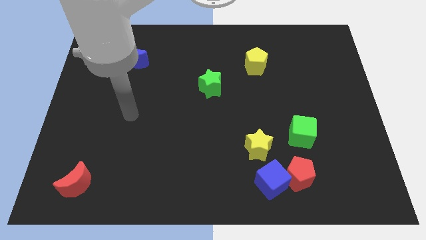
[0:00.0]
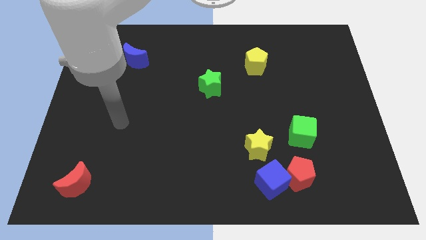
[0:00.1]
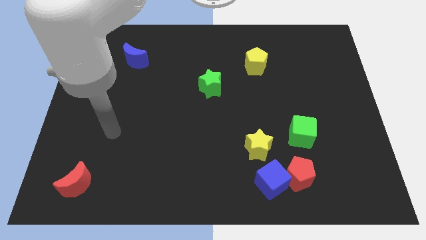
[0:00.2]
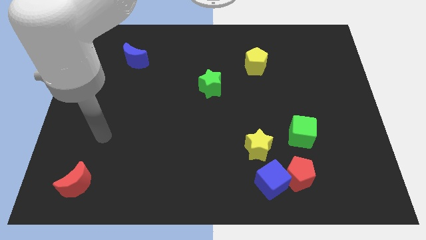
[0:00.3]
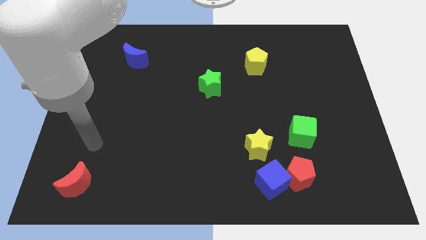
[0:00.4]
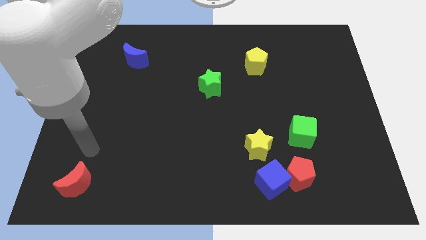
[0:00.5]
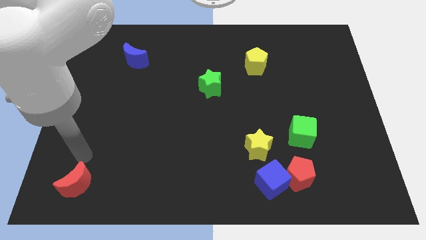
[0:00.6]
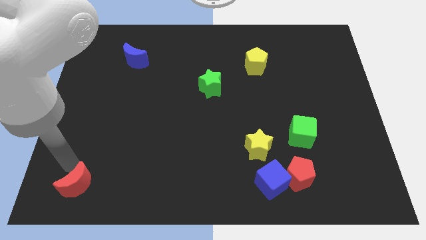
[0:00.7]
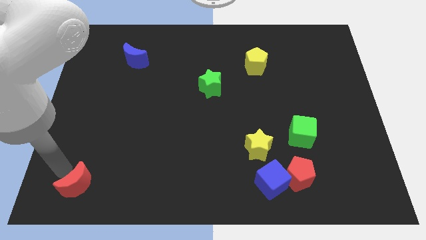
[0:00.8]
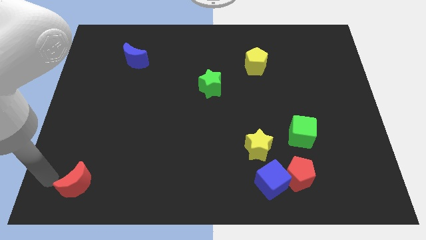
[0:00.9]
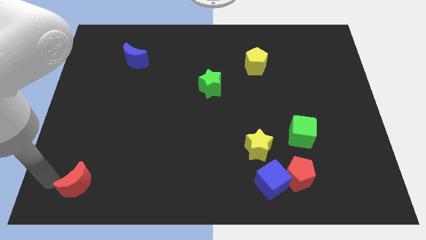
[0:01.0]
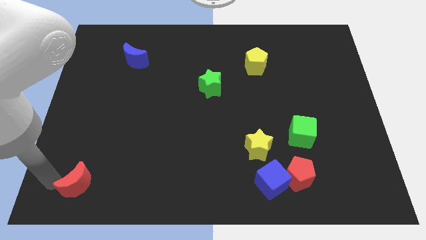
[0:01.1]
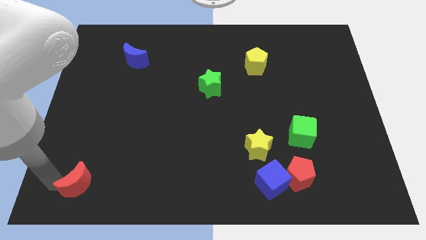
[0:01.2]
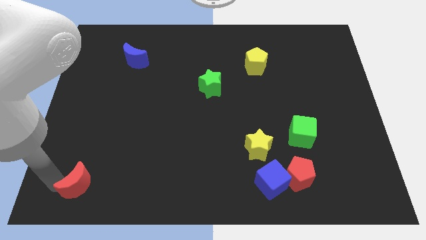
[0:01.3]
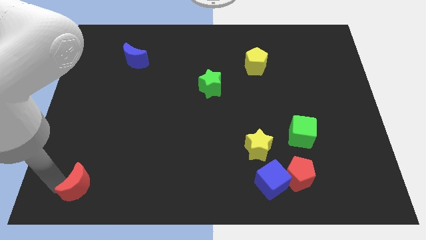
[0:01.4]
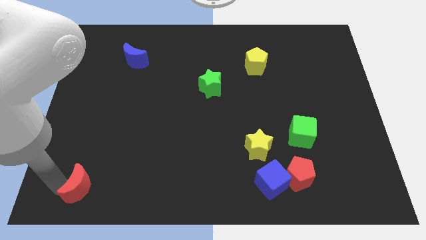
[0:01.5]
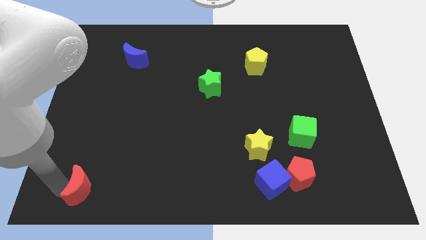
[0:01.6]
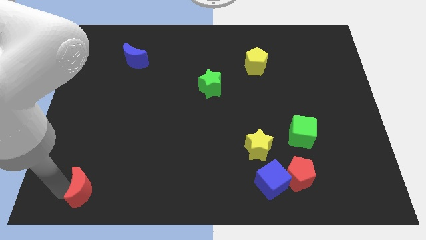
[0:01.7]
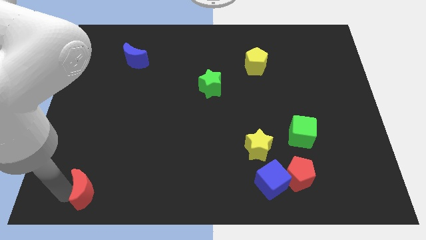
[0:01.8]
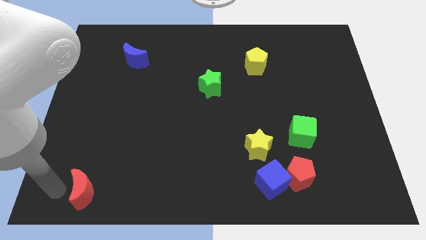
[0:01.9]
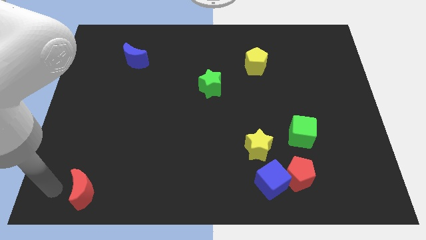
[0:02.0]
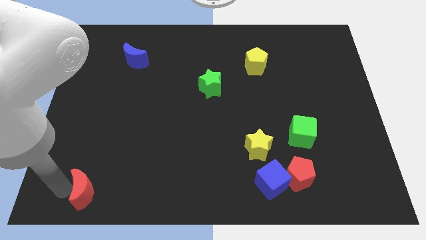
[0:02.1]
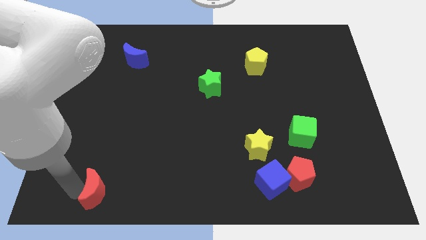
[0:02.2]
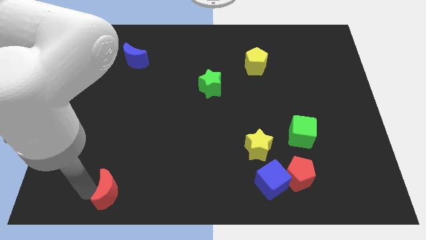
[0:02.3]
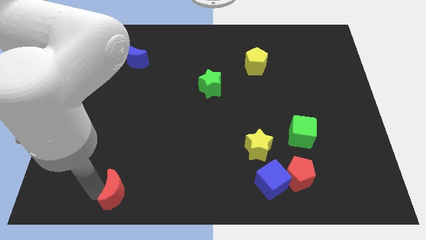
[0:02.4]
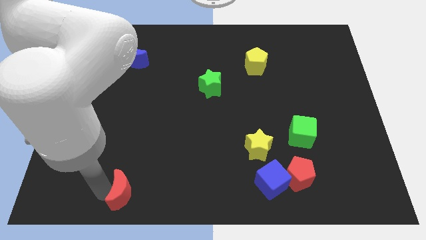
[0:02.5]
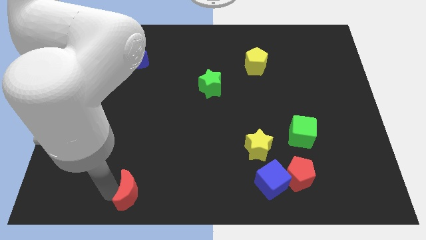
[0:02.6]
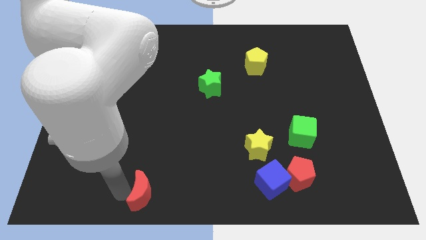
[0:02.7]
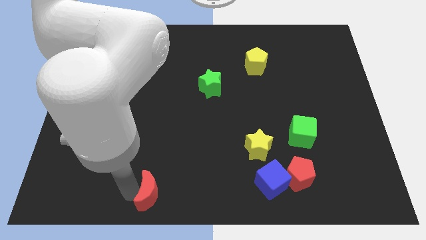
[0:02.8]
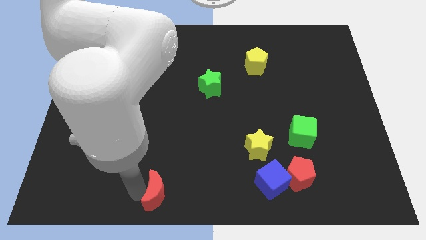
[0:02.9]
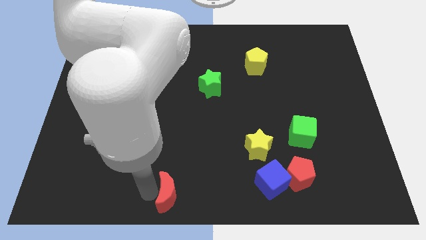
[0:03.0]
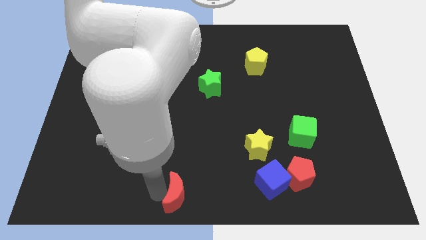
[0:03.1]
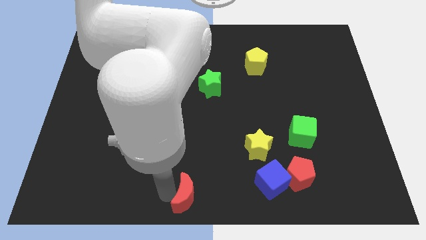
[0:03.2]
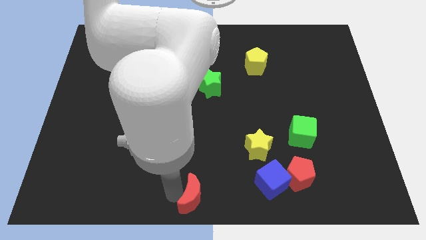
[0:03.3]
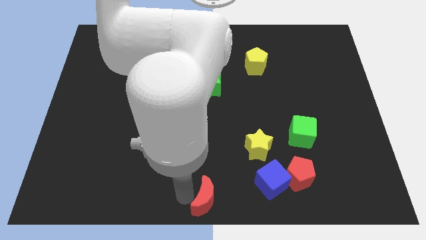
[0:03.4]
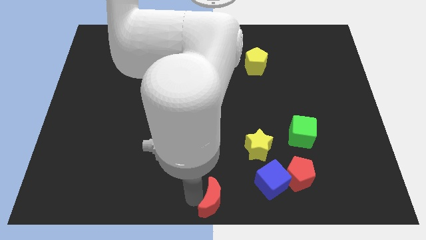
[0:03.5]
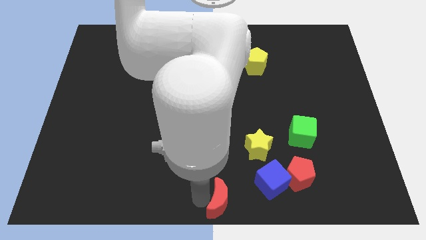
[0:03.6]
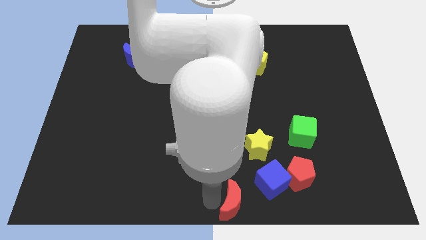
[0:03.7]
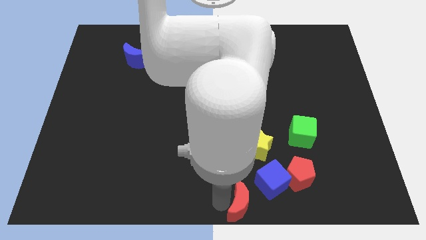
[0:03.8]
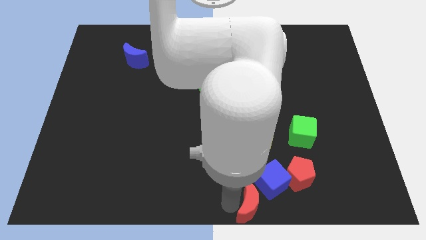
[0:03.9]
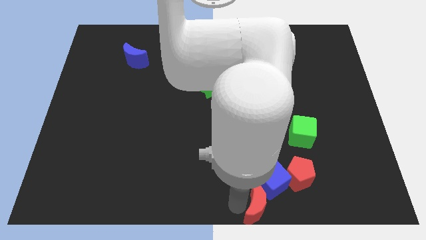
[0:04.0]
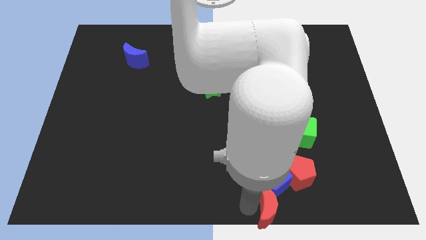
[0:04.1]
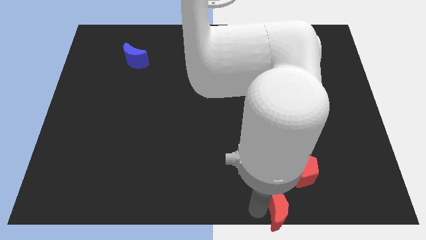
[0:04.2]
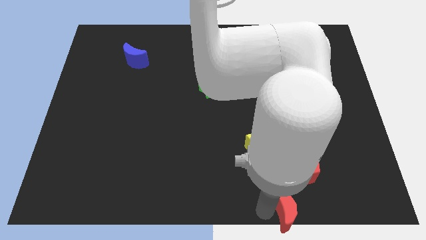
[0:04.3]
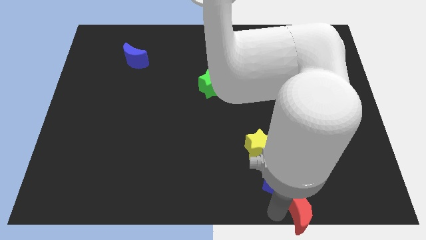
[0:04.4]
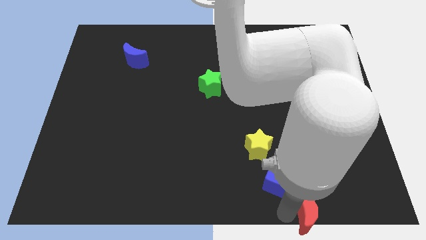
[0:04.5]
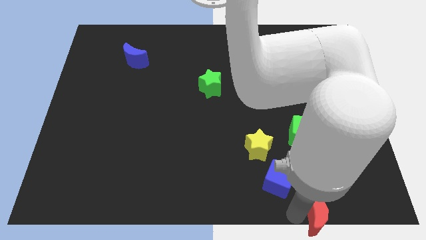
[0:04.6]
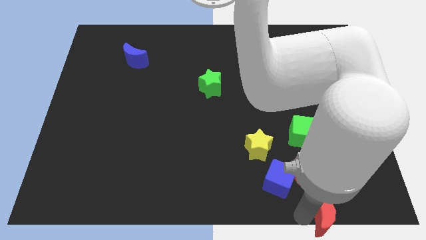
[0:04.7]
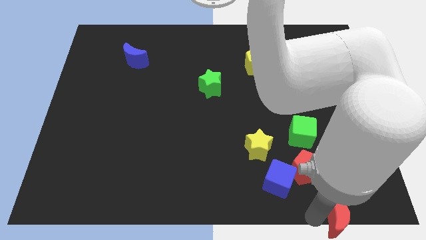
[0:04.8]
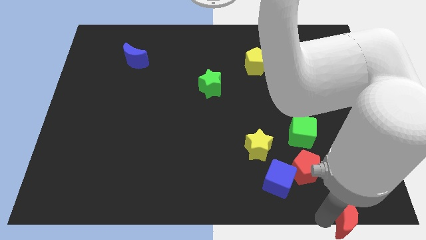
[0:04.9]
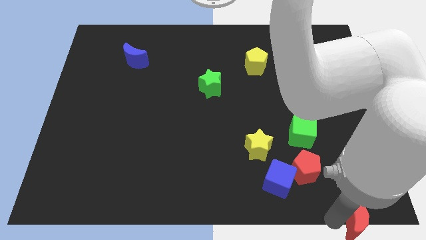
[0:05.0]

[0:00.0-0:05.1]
move the red moon to the bottom right corner
